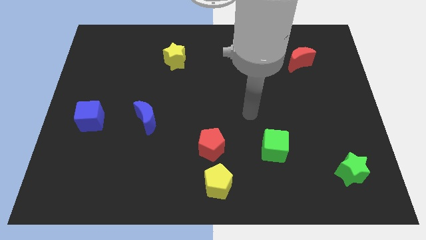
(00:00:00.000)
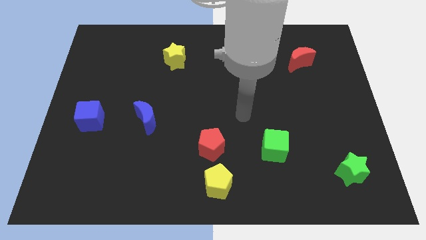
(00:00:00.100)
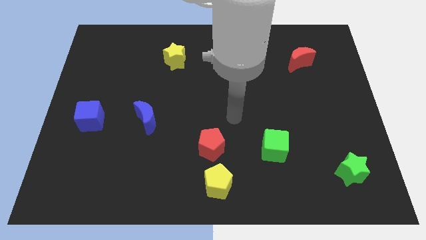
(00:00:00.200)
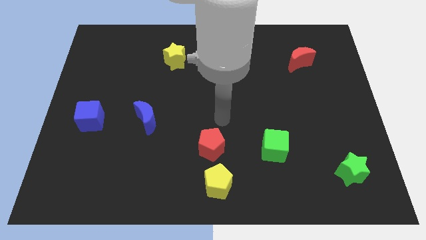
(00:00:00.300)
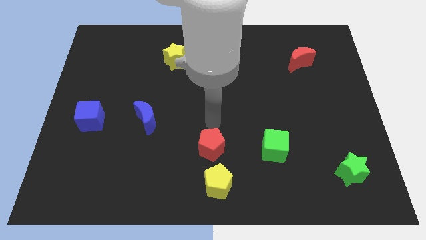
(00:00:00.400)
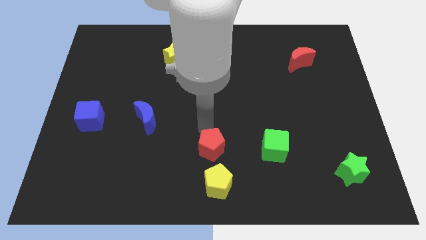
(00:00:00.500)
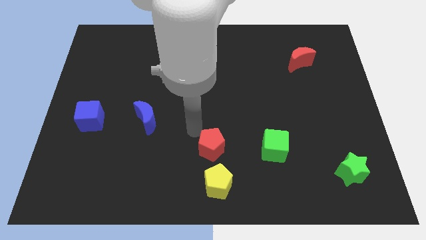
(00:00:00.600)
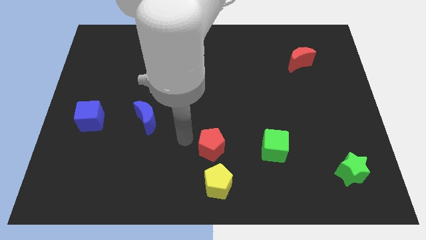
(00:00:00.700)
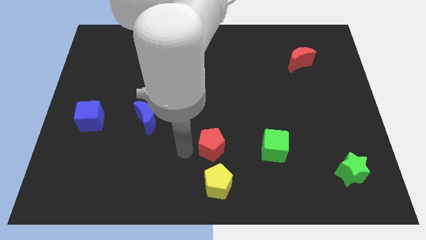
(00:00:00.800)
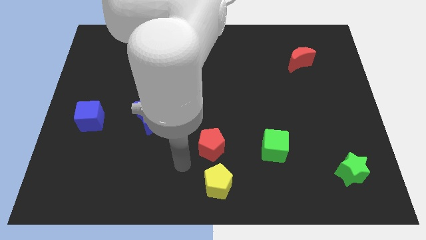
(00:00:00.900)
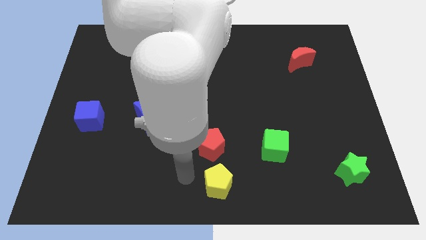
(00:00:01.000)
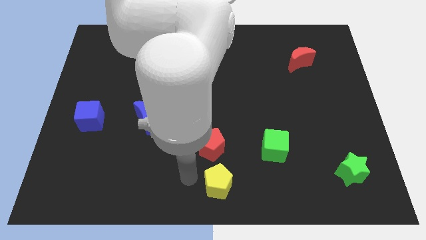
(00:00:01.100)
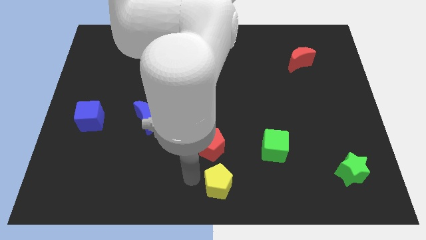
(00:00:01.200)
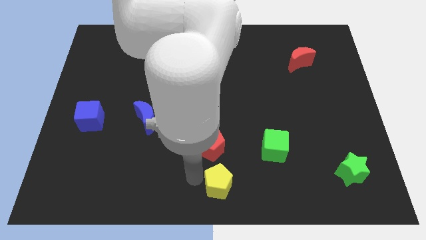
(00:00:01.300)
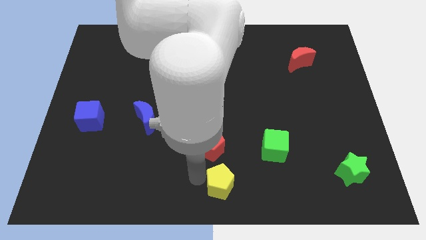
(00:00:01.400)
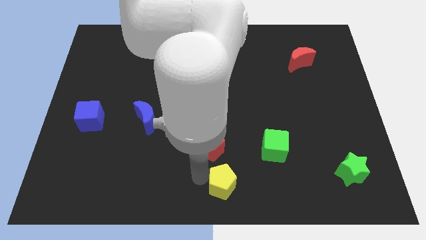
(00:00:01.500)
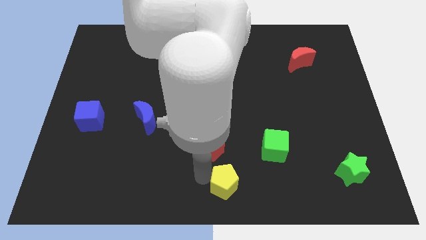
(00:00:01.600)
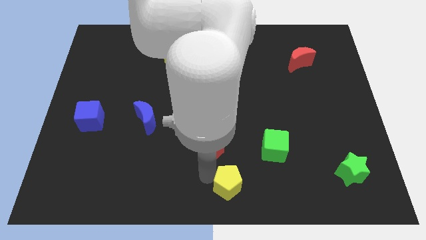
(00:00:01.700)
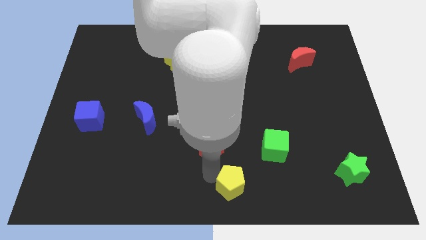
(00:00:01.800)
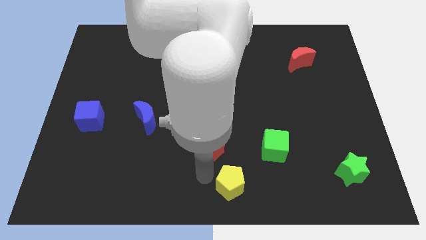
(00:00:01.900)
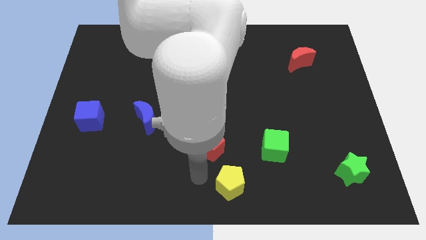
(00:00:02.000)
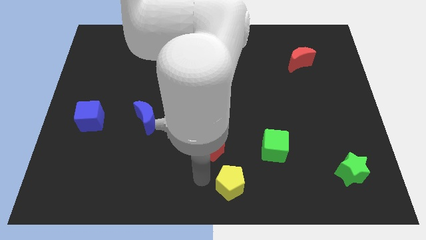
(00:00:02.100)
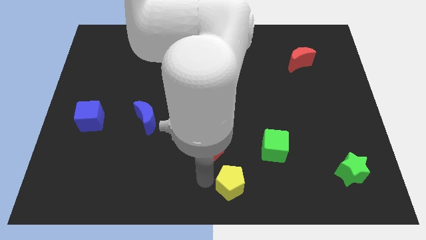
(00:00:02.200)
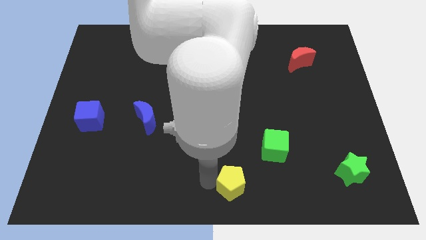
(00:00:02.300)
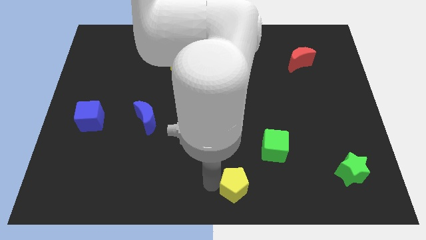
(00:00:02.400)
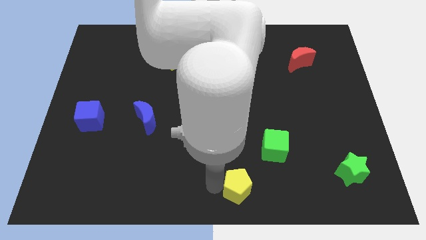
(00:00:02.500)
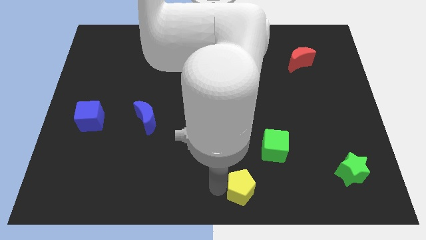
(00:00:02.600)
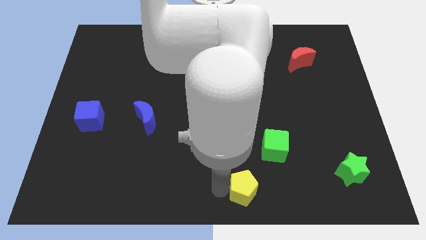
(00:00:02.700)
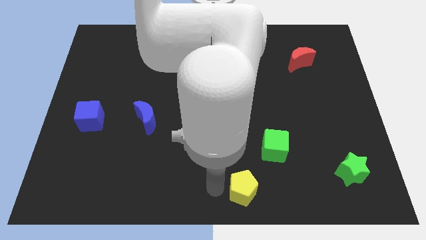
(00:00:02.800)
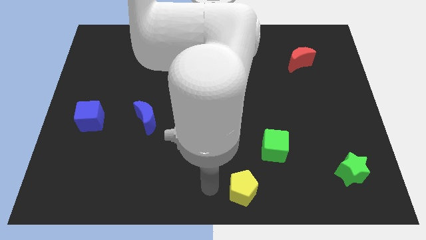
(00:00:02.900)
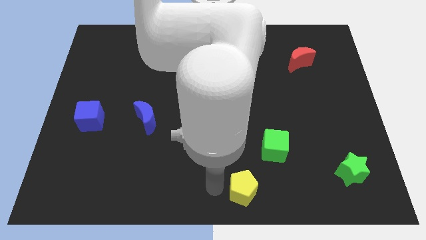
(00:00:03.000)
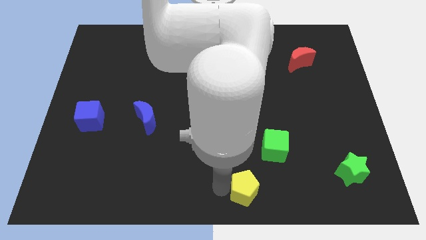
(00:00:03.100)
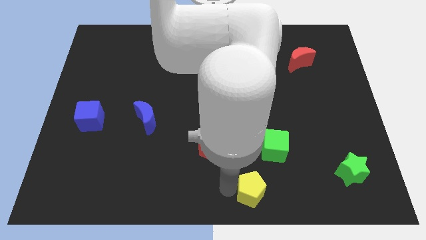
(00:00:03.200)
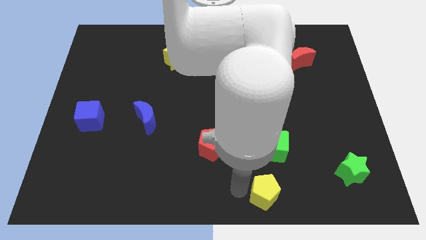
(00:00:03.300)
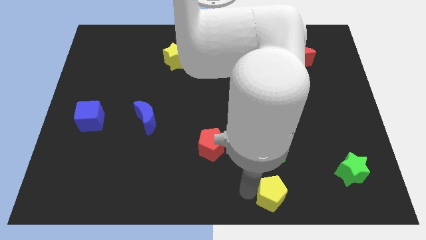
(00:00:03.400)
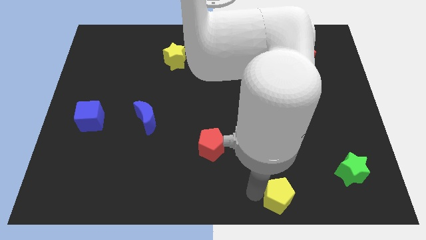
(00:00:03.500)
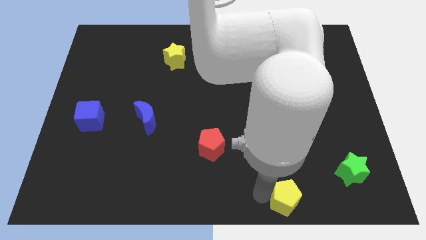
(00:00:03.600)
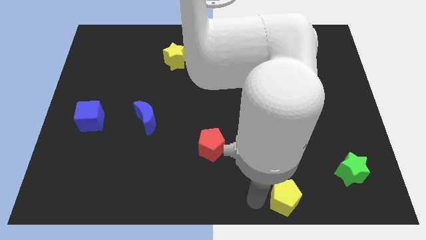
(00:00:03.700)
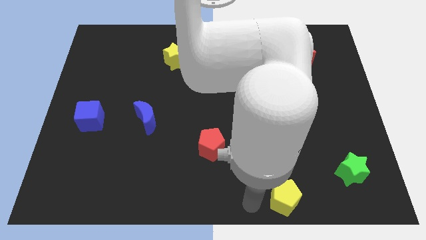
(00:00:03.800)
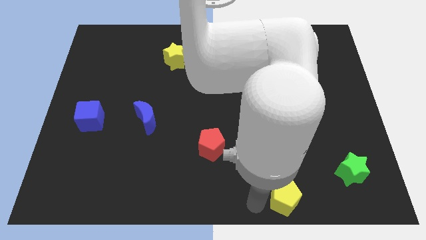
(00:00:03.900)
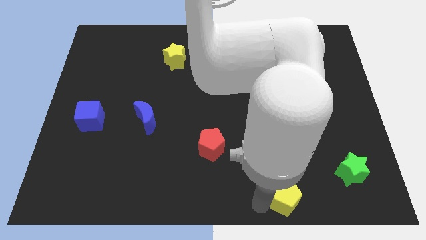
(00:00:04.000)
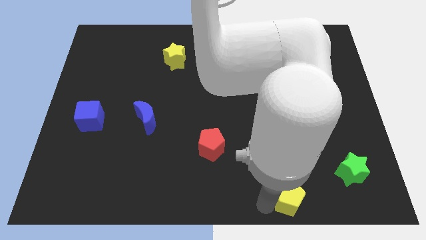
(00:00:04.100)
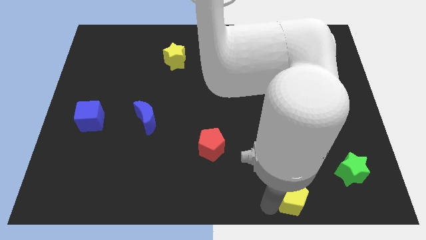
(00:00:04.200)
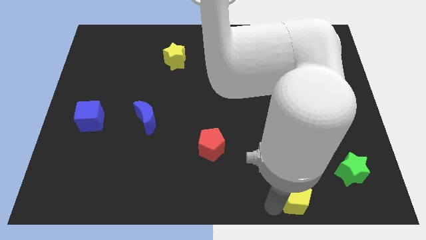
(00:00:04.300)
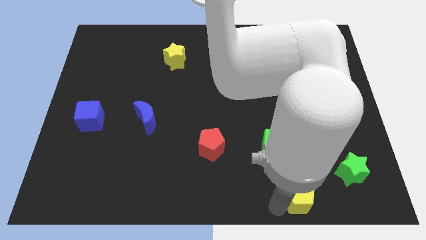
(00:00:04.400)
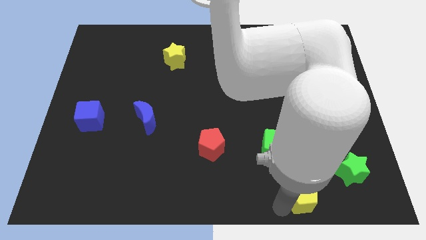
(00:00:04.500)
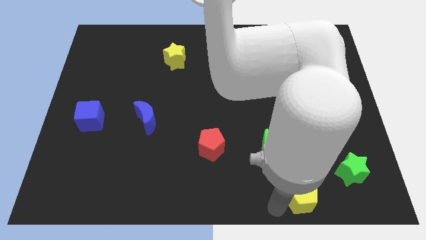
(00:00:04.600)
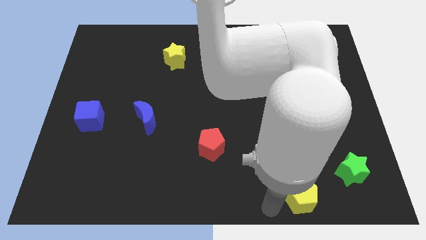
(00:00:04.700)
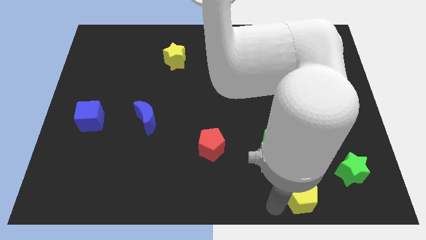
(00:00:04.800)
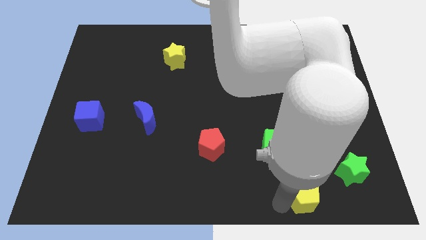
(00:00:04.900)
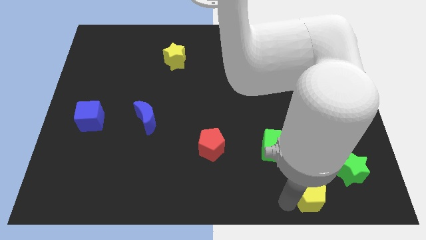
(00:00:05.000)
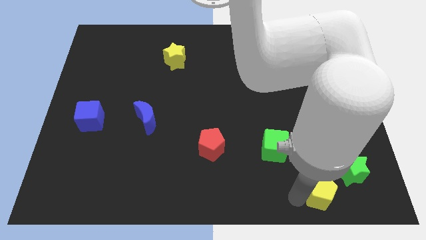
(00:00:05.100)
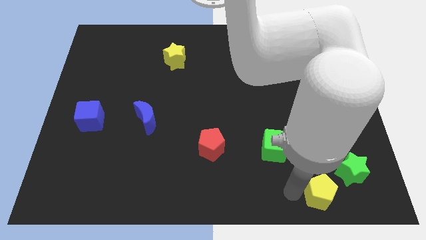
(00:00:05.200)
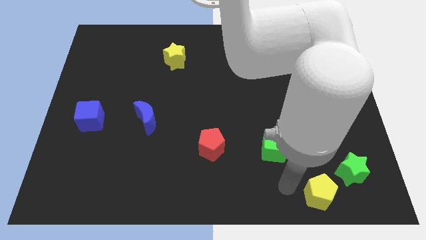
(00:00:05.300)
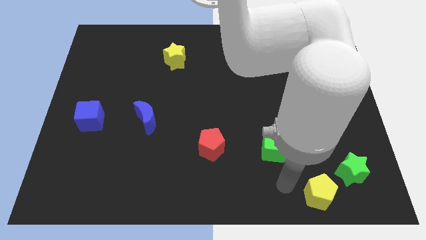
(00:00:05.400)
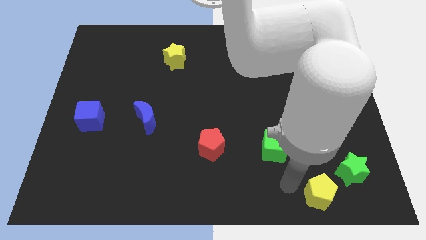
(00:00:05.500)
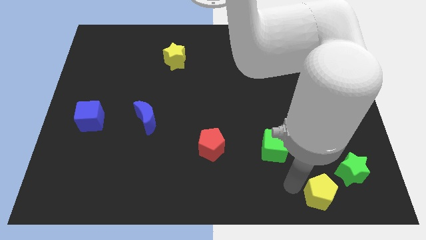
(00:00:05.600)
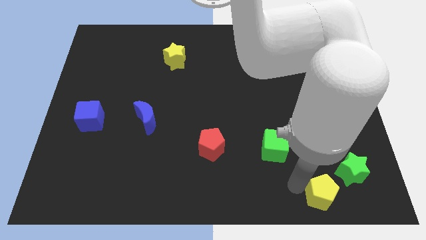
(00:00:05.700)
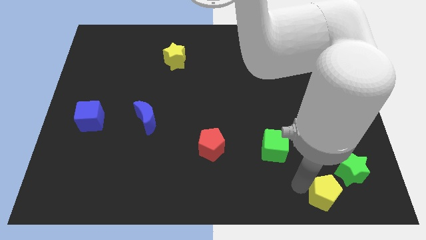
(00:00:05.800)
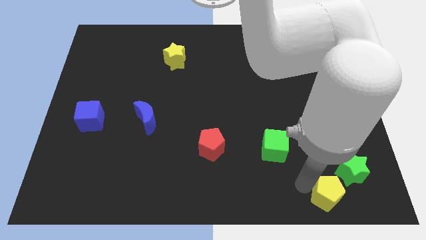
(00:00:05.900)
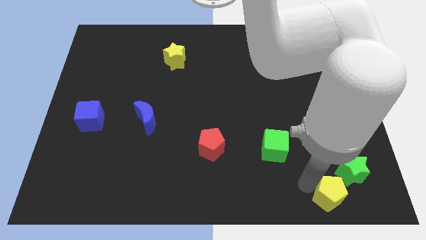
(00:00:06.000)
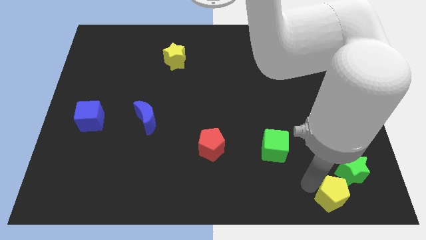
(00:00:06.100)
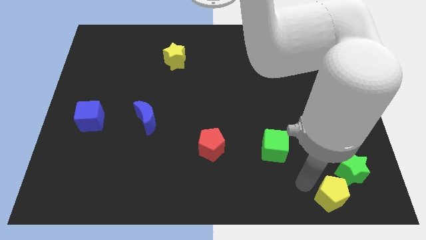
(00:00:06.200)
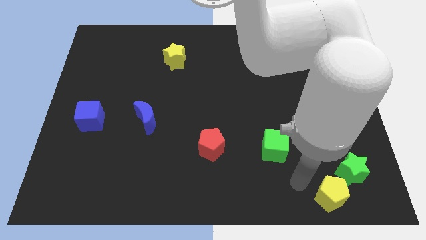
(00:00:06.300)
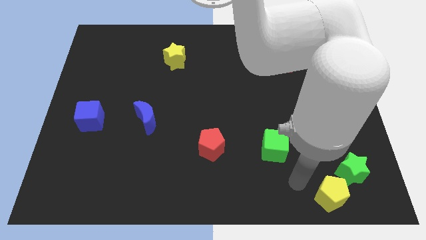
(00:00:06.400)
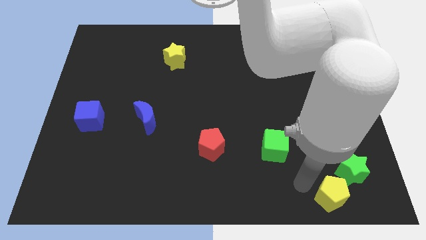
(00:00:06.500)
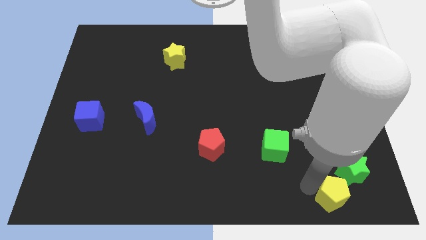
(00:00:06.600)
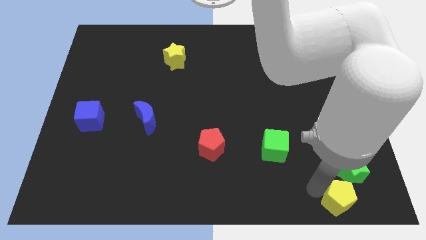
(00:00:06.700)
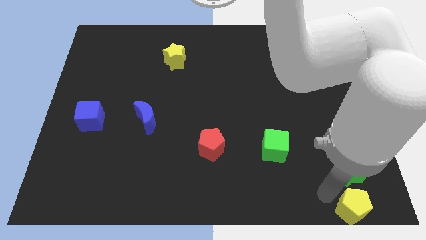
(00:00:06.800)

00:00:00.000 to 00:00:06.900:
move the yellow pentagon to the bottom right corner
